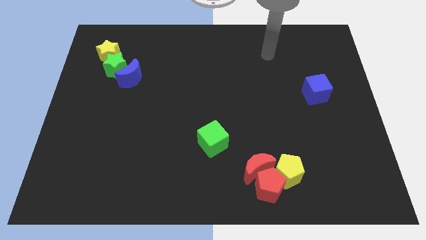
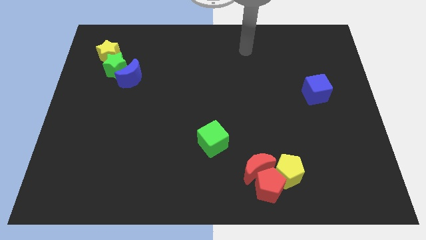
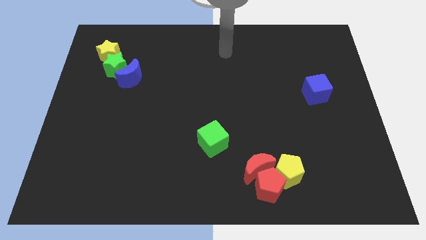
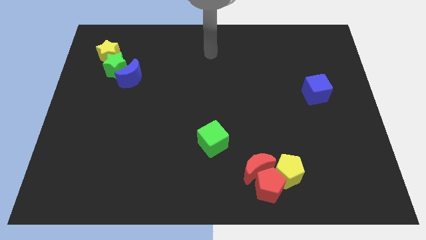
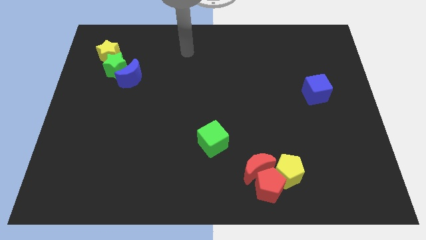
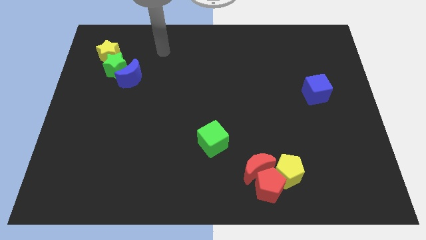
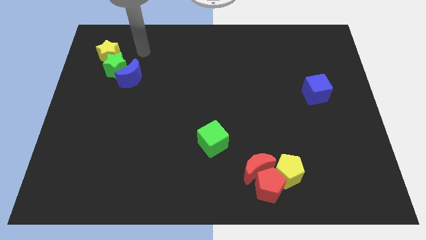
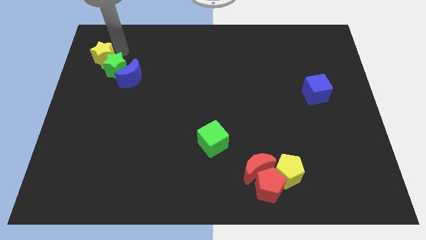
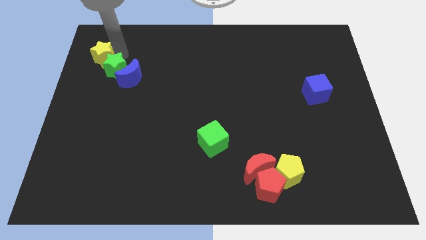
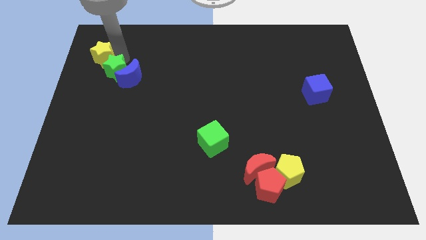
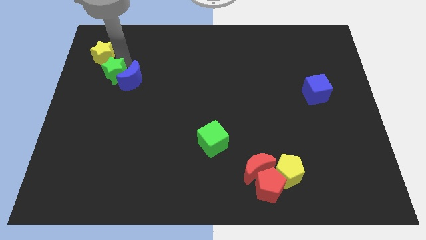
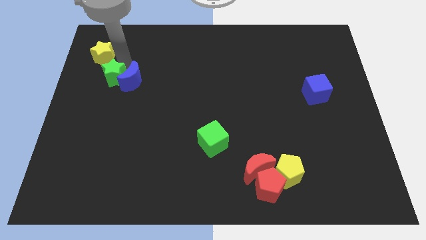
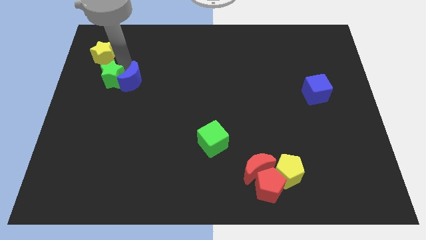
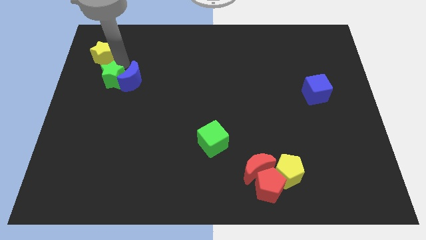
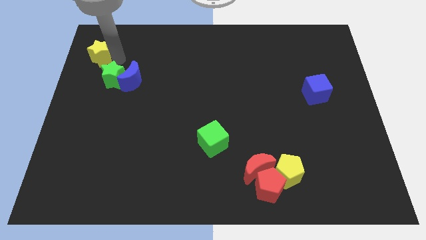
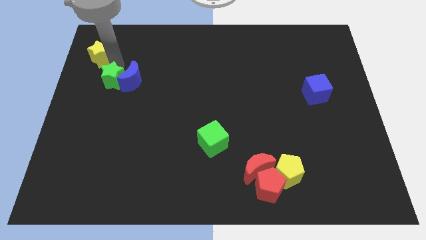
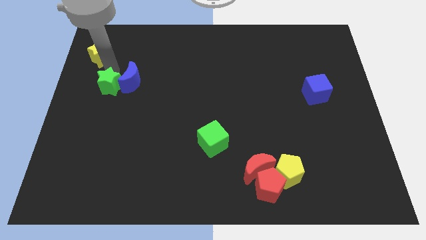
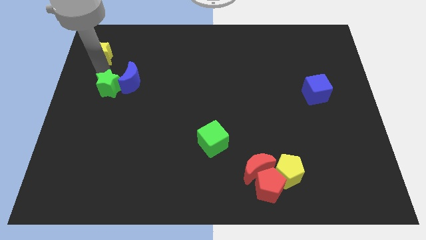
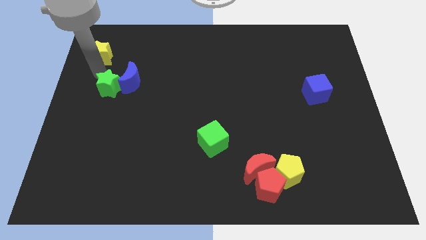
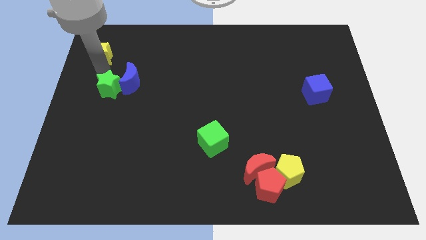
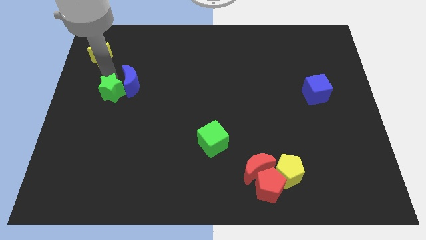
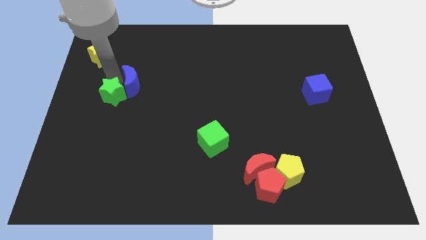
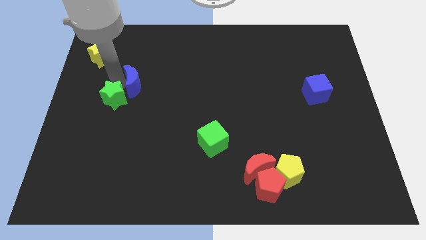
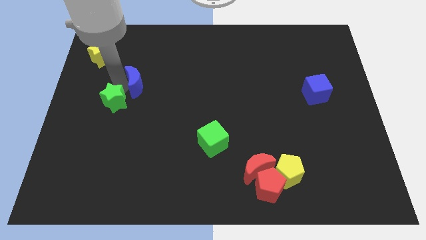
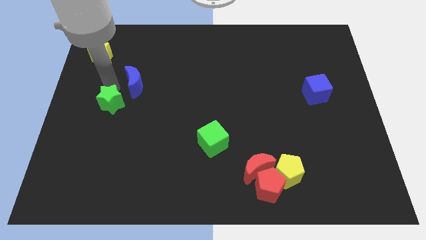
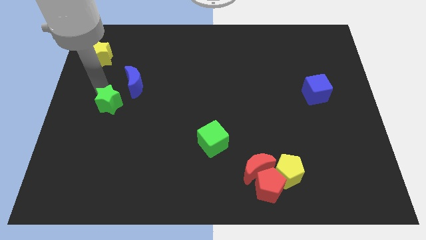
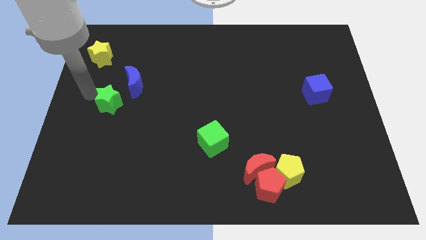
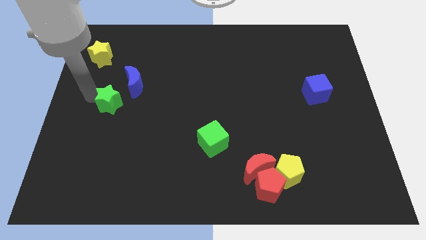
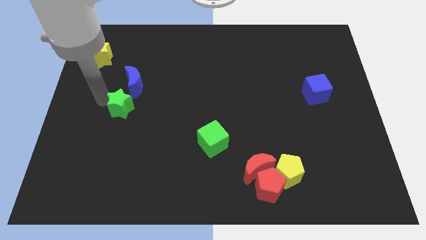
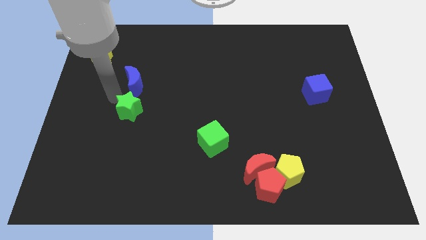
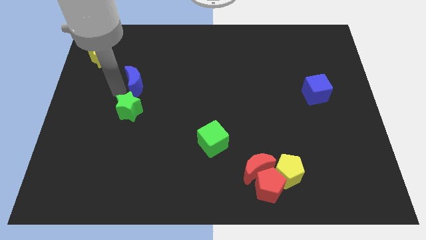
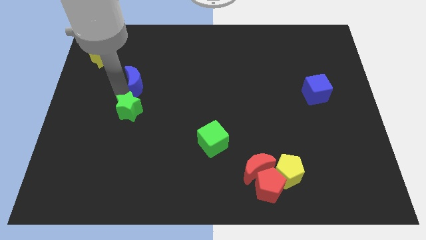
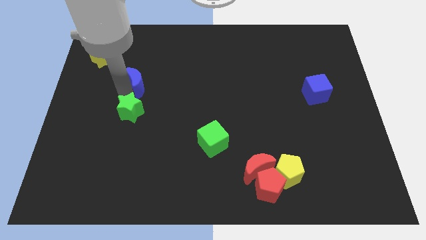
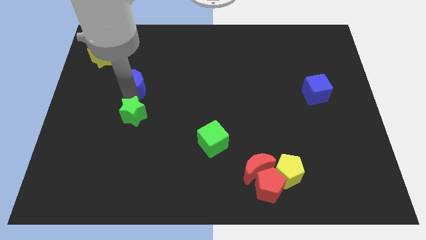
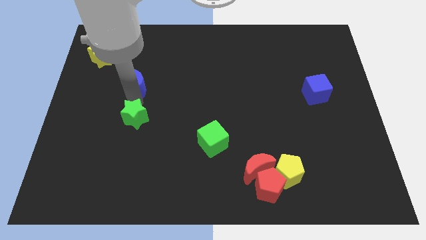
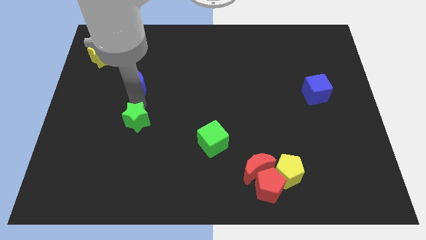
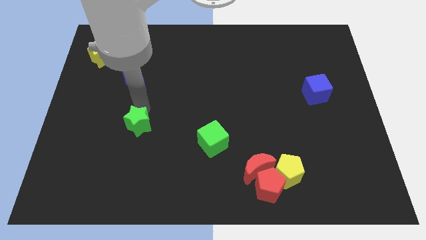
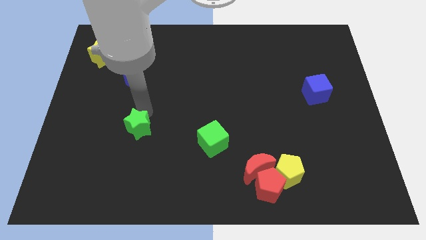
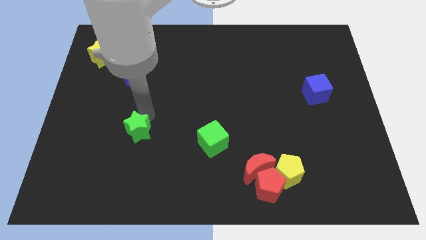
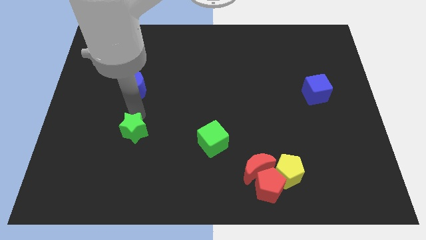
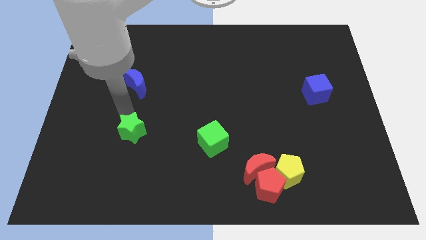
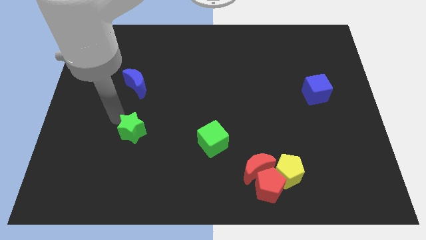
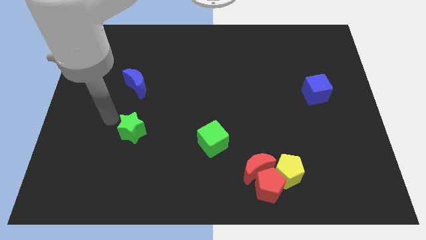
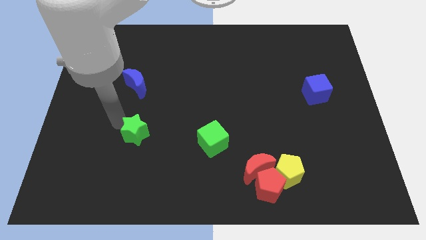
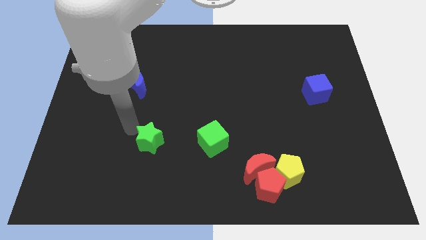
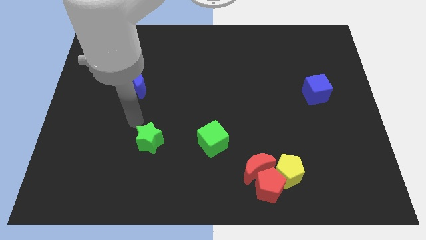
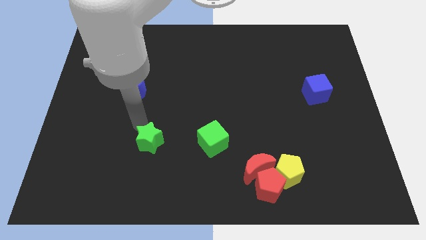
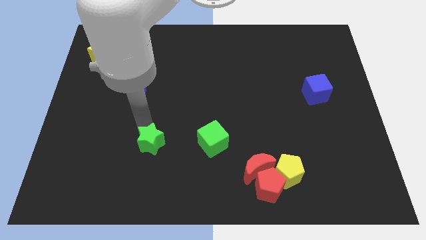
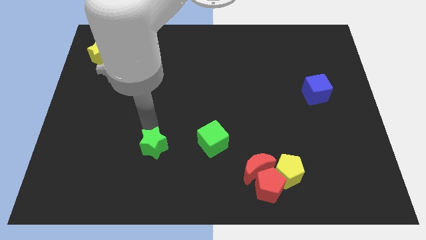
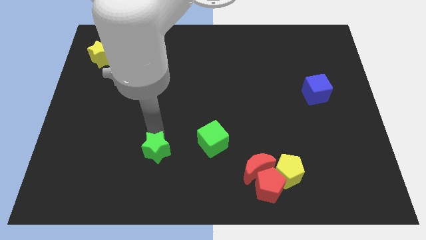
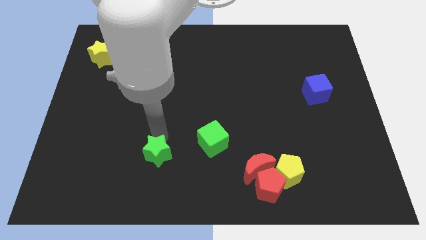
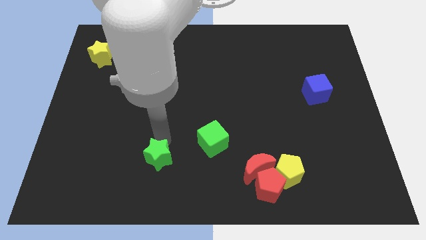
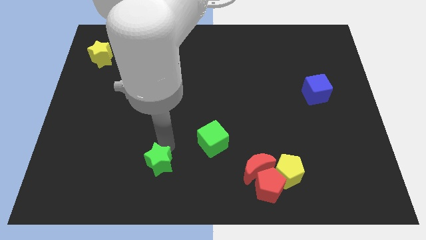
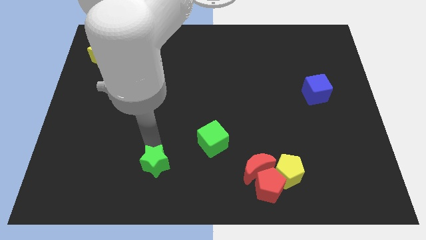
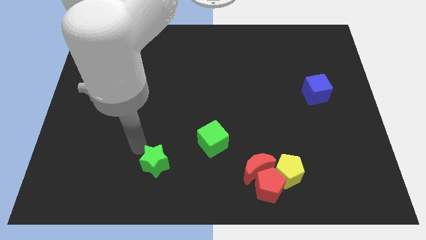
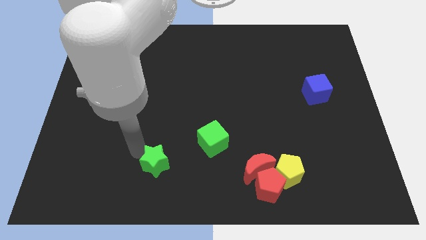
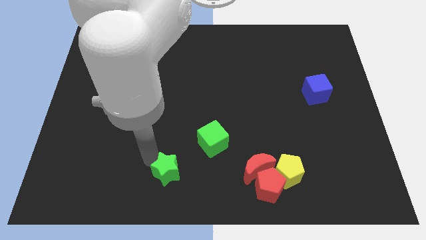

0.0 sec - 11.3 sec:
move the green star to the bottom

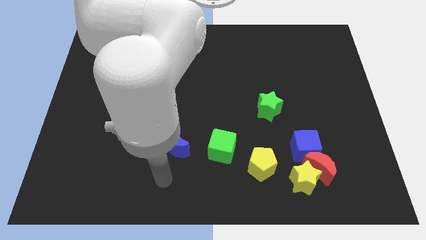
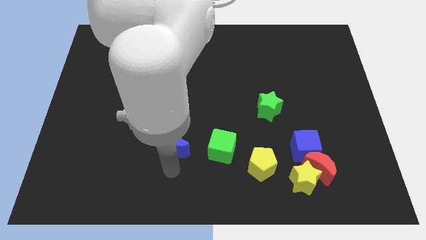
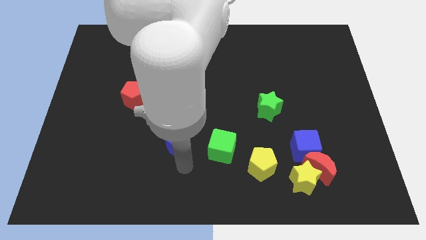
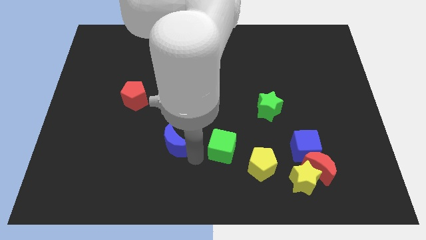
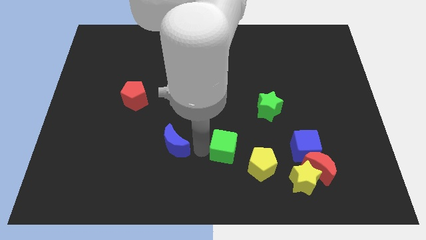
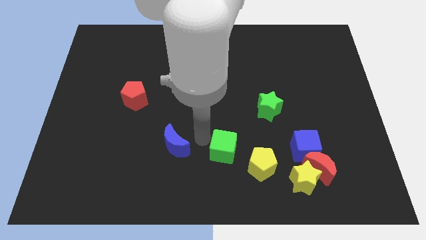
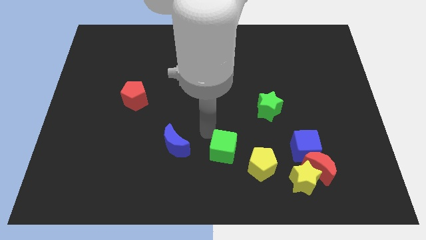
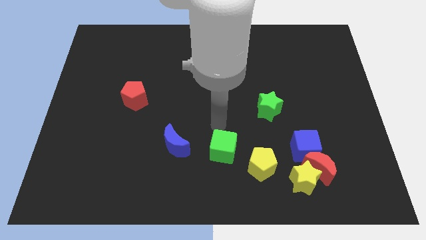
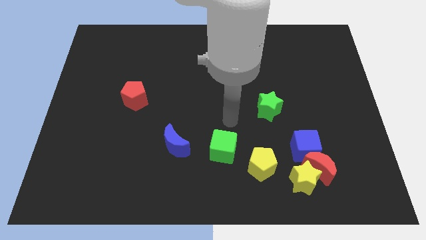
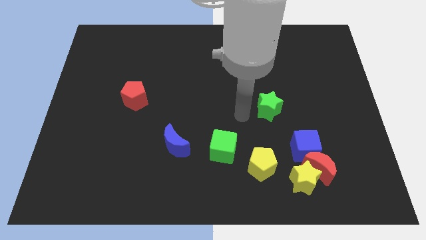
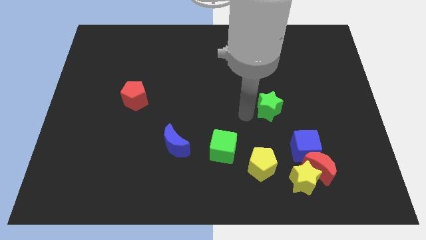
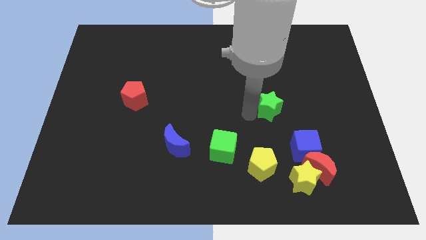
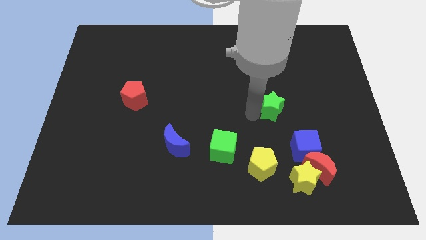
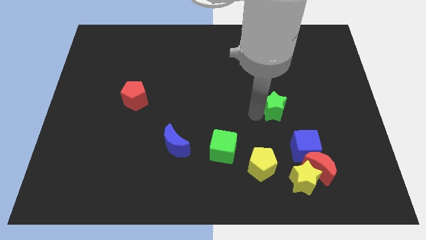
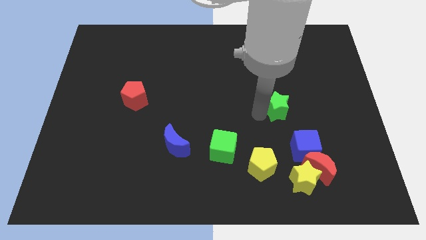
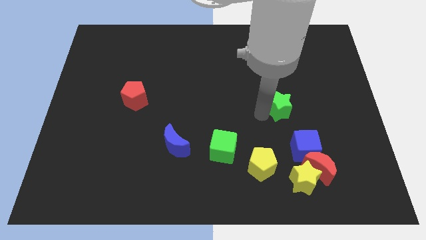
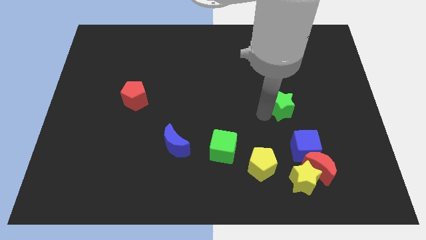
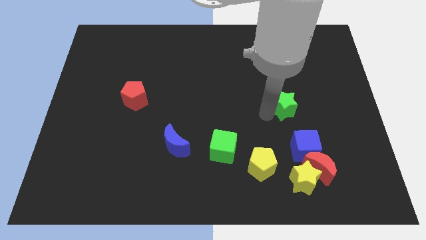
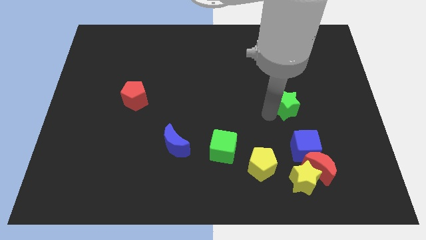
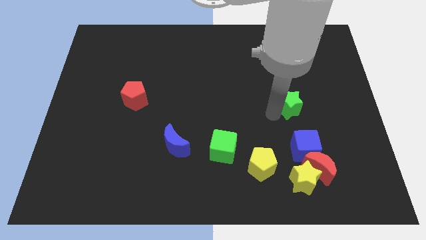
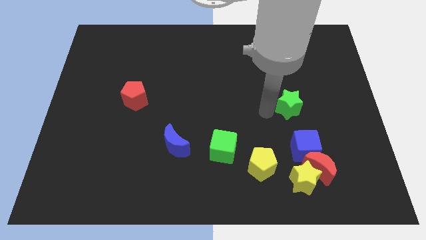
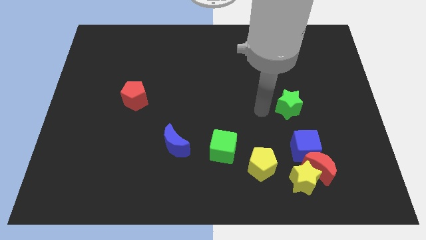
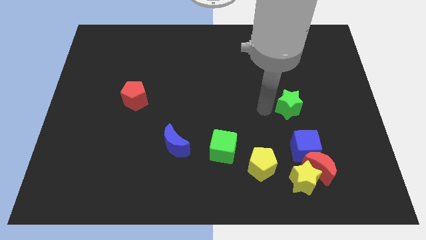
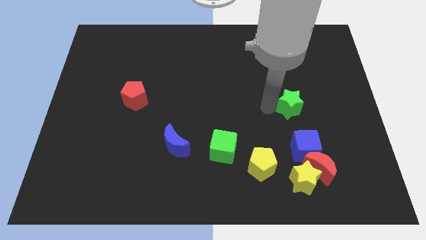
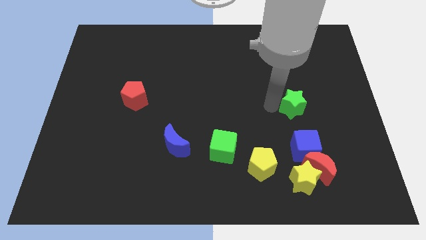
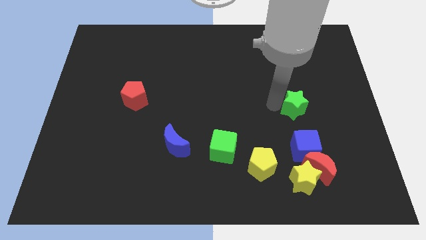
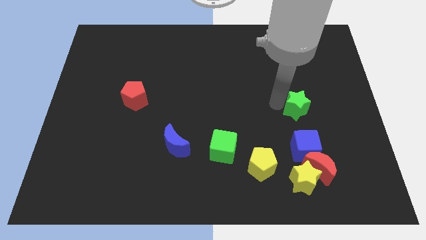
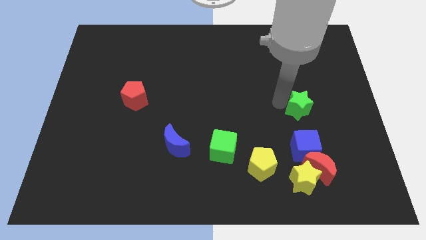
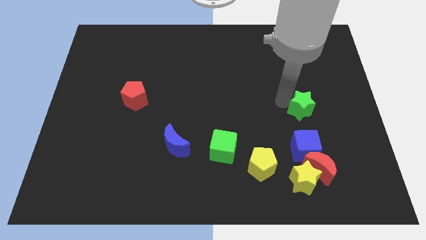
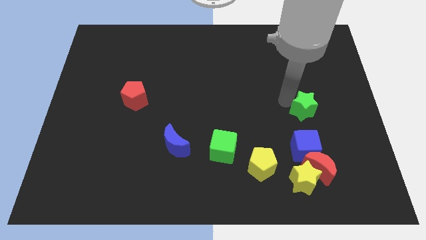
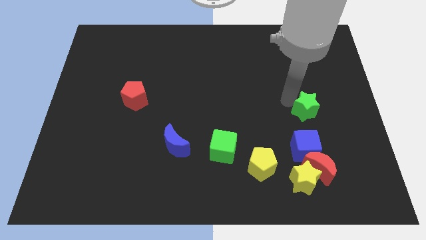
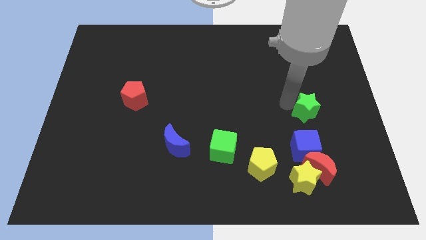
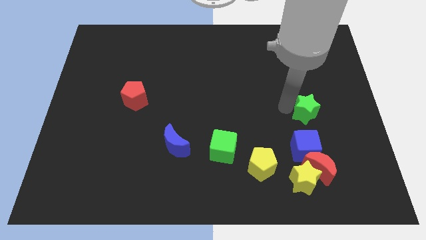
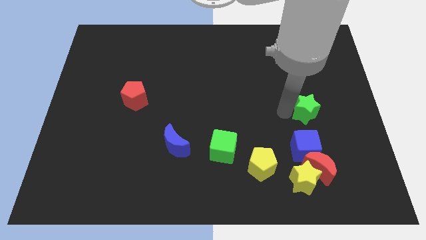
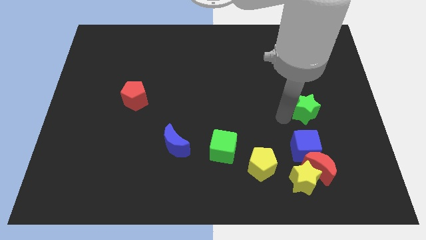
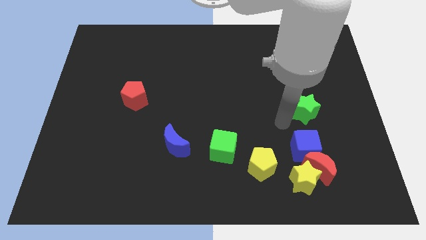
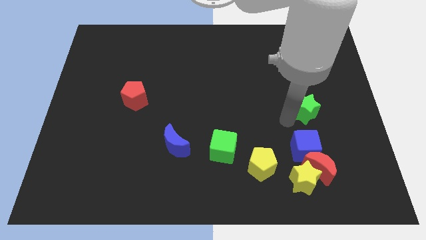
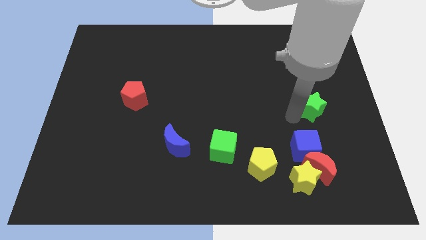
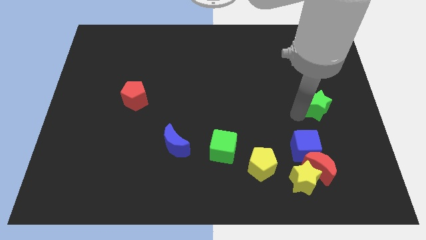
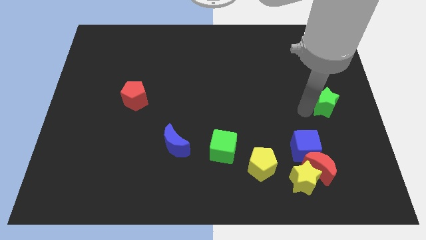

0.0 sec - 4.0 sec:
put the green star to the right side of the board
